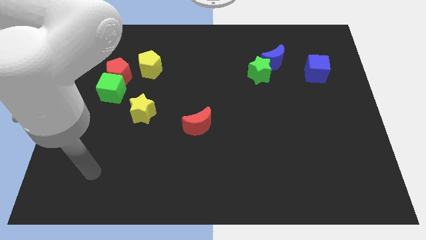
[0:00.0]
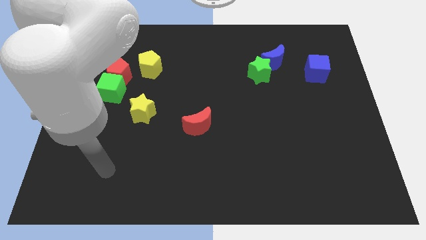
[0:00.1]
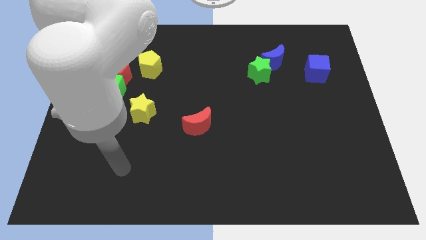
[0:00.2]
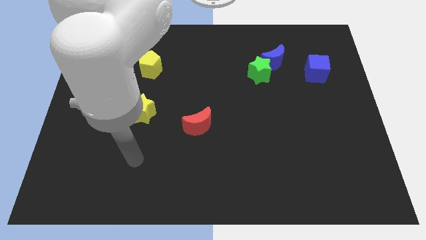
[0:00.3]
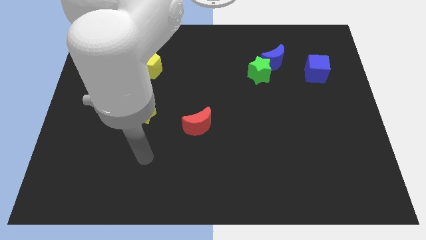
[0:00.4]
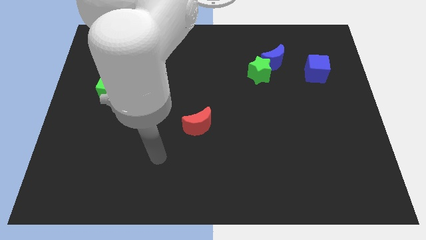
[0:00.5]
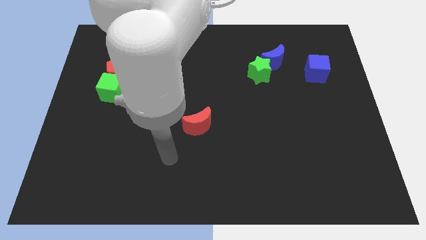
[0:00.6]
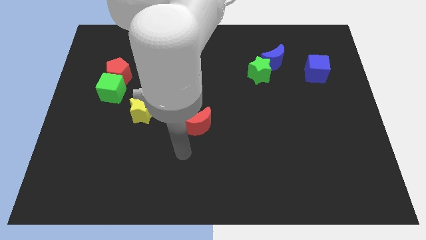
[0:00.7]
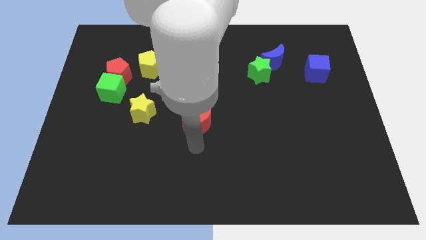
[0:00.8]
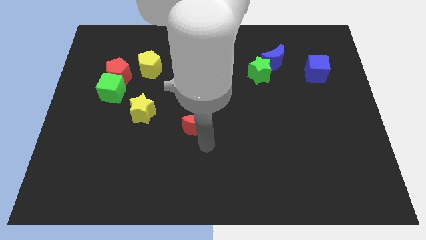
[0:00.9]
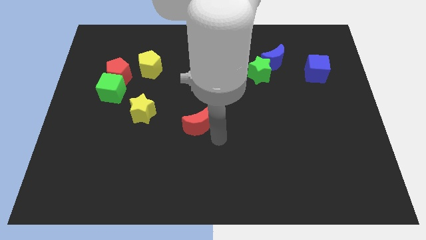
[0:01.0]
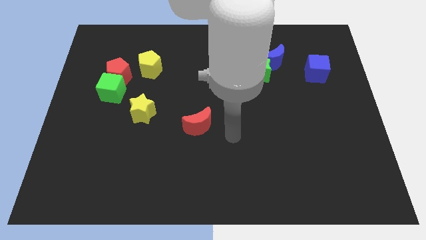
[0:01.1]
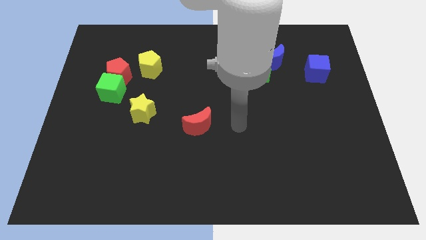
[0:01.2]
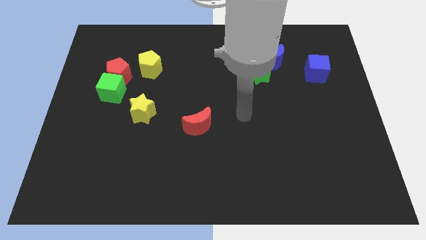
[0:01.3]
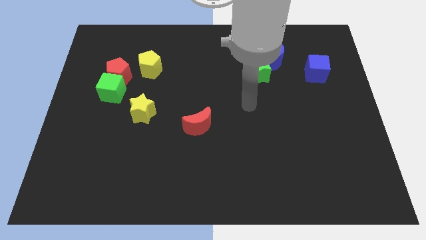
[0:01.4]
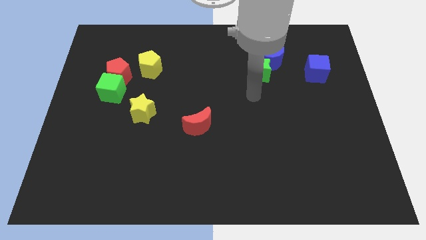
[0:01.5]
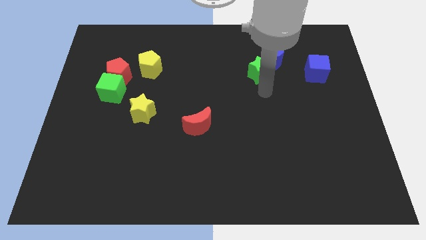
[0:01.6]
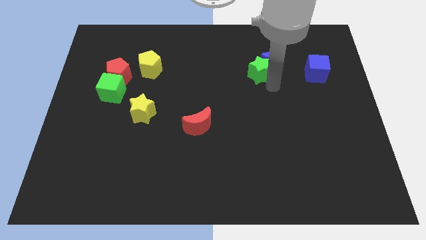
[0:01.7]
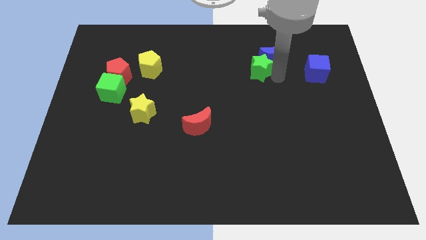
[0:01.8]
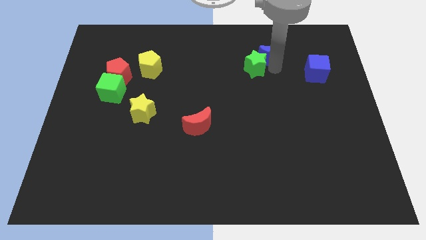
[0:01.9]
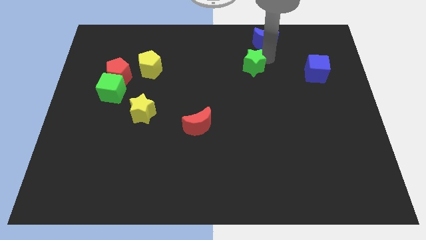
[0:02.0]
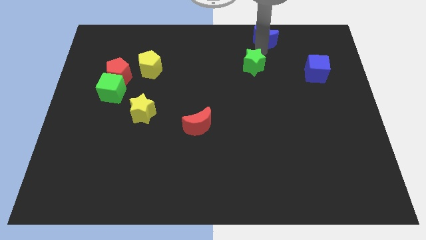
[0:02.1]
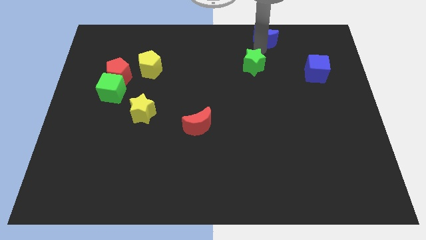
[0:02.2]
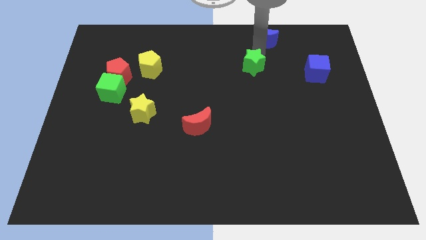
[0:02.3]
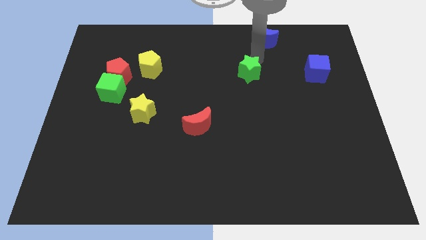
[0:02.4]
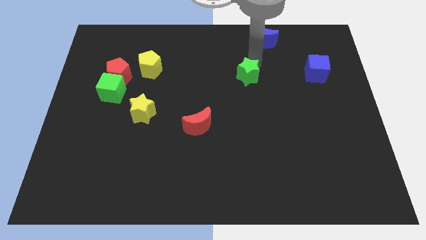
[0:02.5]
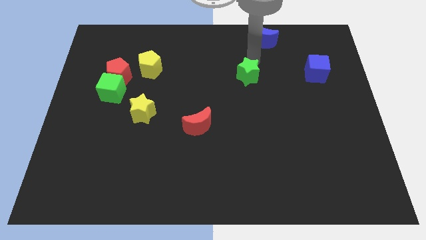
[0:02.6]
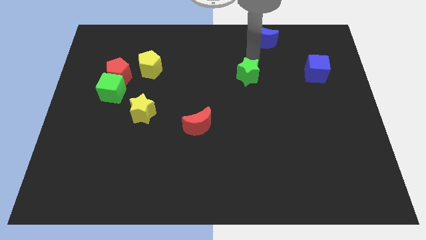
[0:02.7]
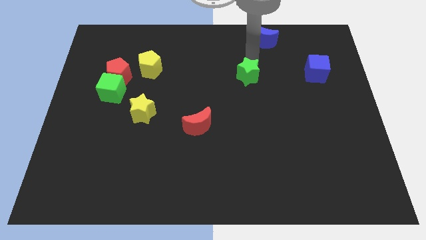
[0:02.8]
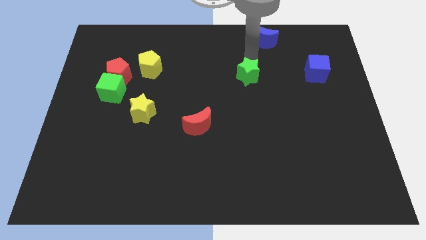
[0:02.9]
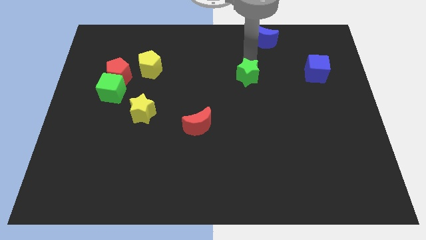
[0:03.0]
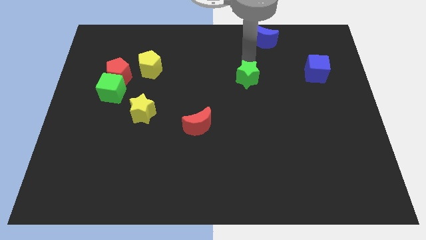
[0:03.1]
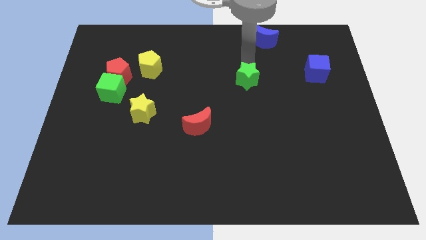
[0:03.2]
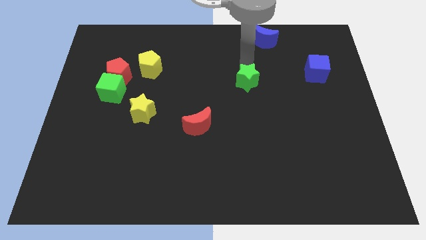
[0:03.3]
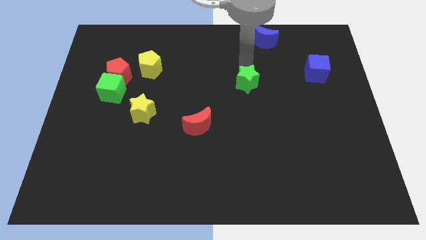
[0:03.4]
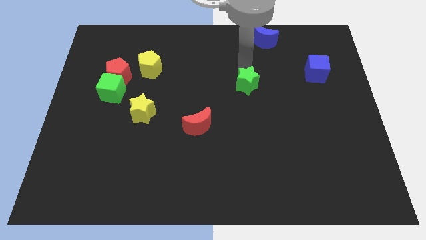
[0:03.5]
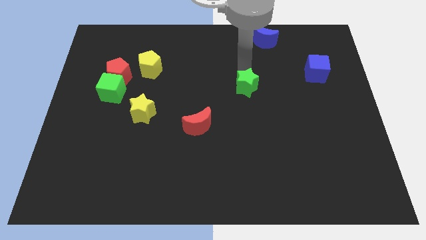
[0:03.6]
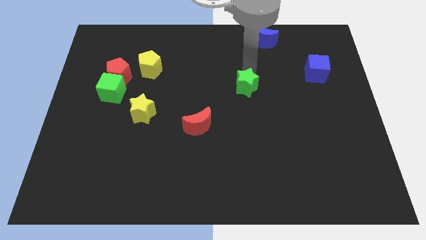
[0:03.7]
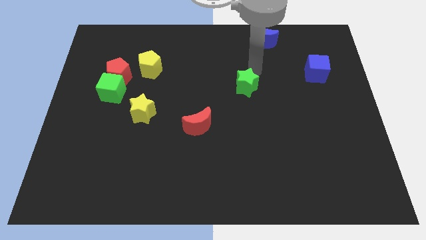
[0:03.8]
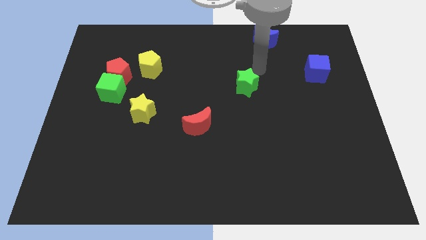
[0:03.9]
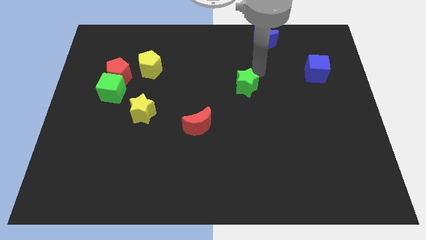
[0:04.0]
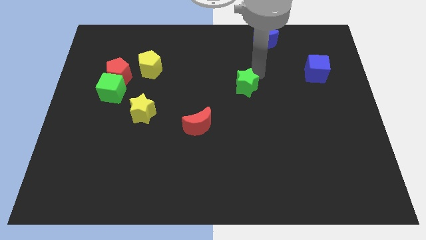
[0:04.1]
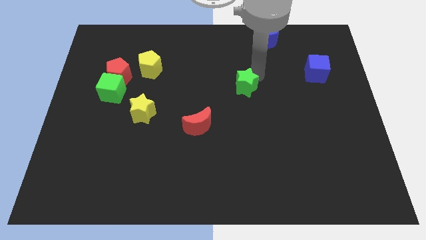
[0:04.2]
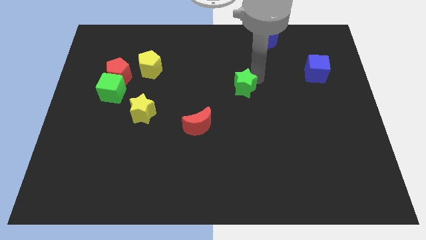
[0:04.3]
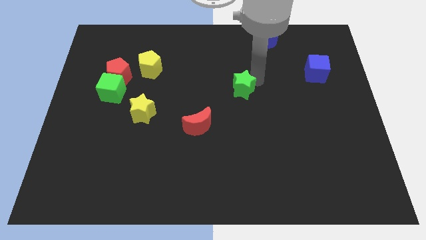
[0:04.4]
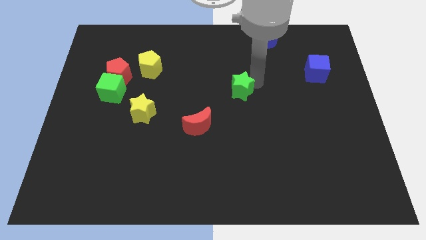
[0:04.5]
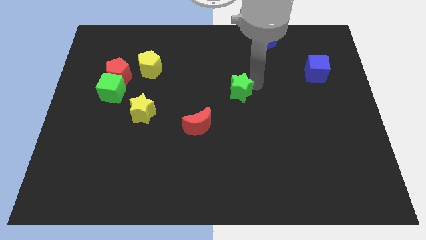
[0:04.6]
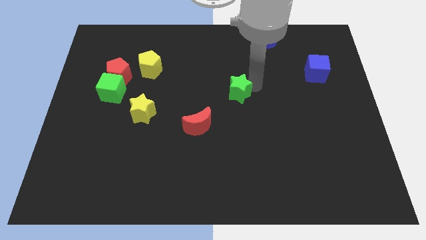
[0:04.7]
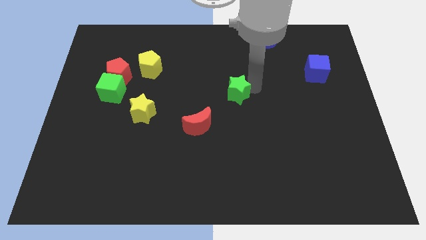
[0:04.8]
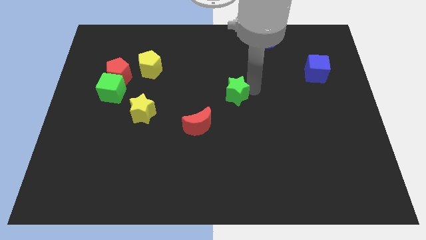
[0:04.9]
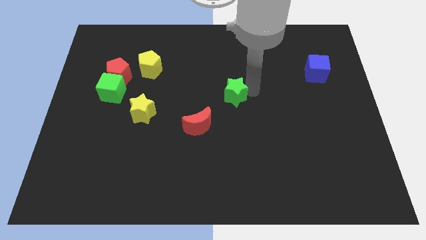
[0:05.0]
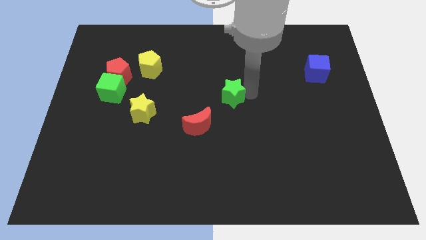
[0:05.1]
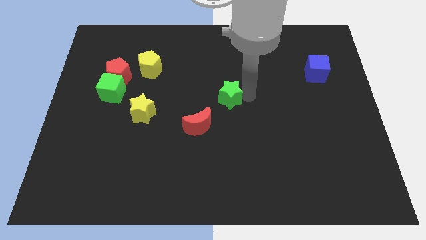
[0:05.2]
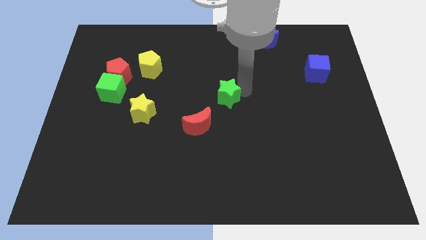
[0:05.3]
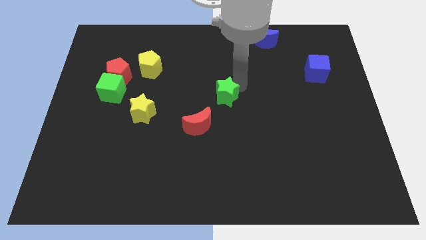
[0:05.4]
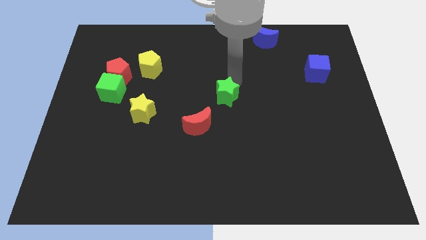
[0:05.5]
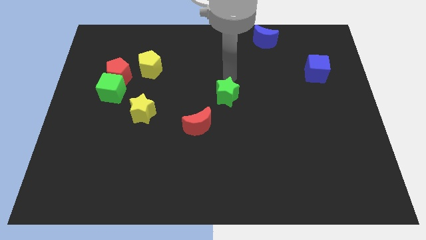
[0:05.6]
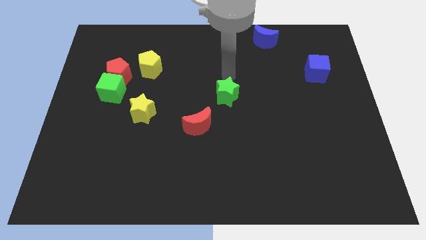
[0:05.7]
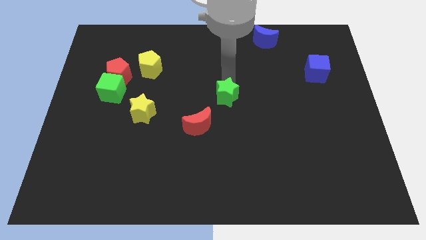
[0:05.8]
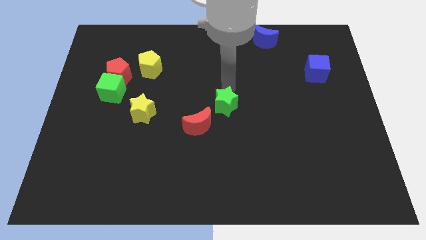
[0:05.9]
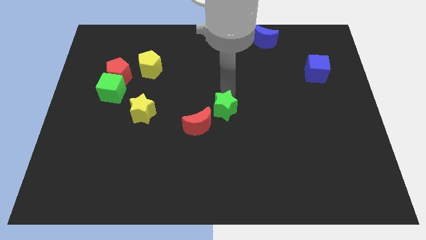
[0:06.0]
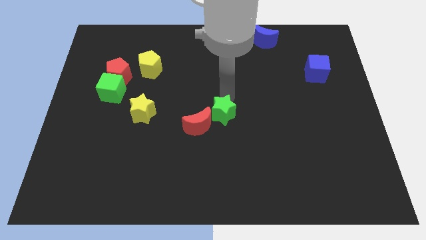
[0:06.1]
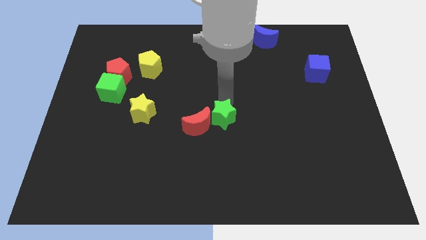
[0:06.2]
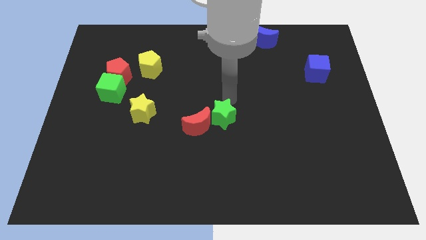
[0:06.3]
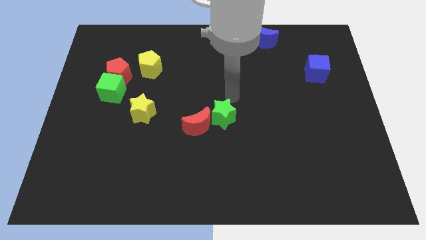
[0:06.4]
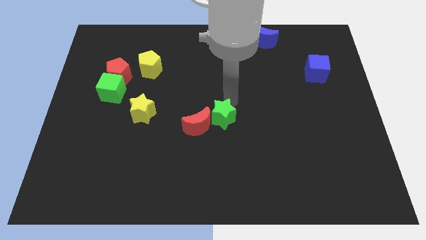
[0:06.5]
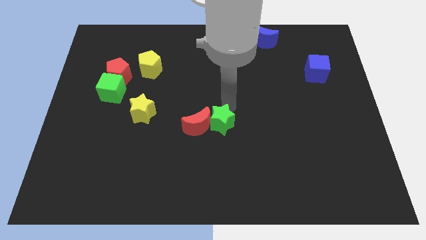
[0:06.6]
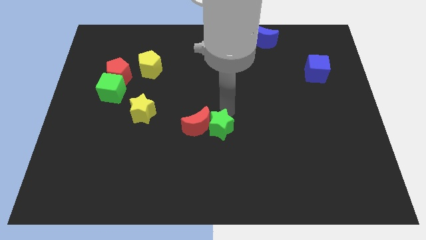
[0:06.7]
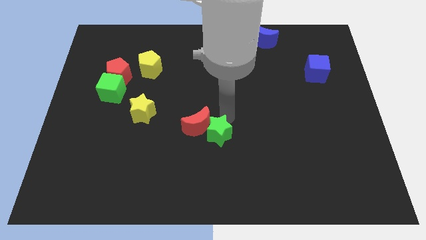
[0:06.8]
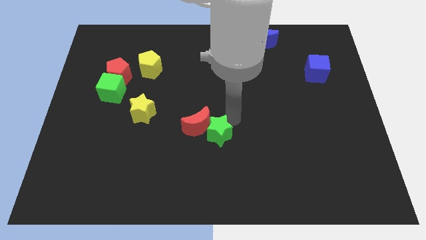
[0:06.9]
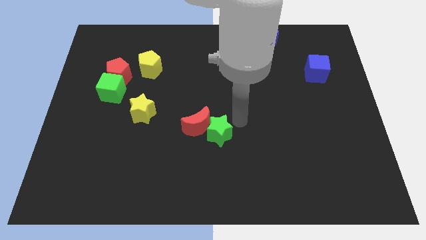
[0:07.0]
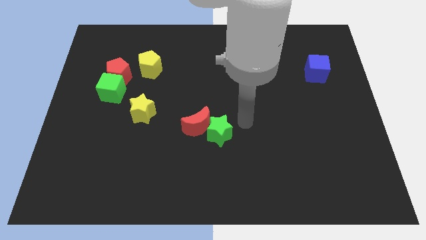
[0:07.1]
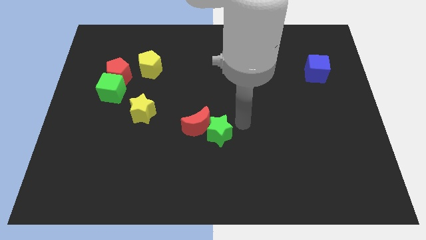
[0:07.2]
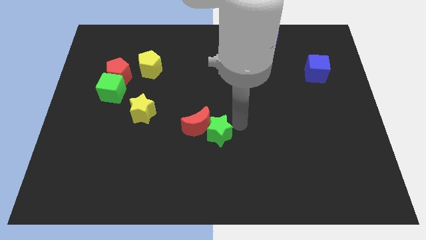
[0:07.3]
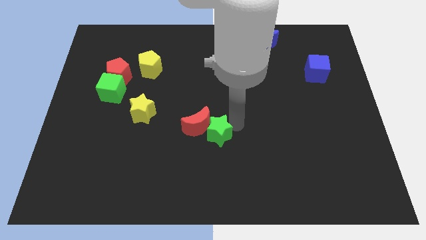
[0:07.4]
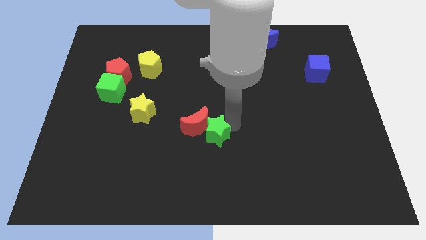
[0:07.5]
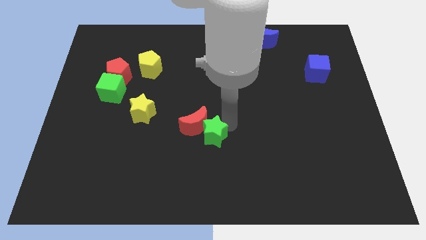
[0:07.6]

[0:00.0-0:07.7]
push the green star down and then to the left

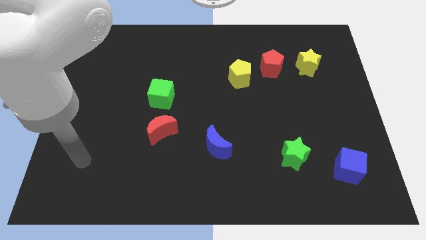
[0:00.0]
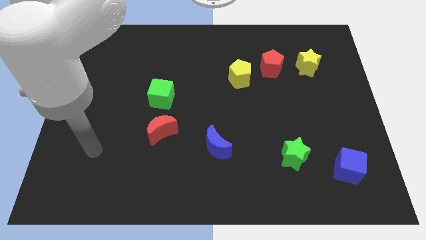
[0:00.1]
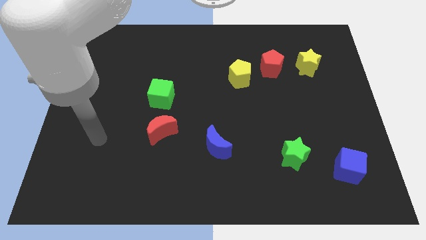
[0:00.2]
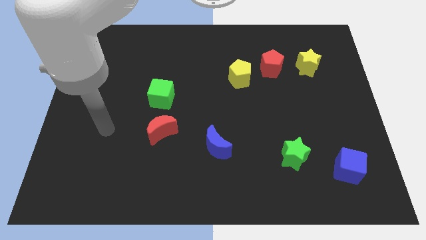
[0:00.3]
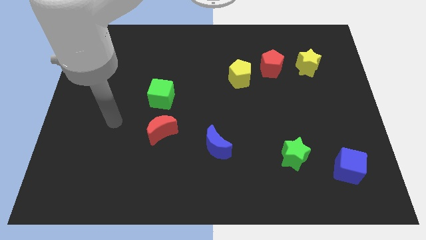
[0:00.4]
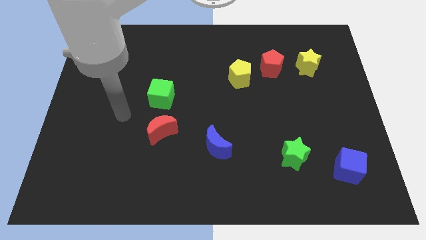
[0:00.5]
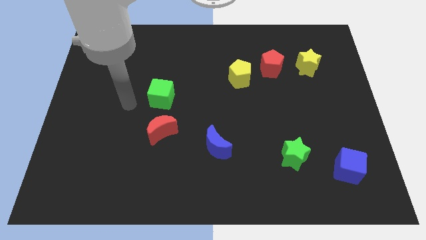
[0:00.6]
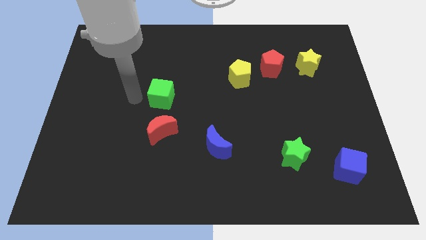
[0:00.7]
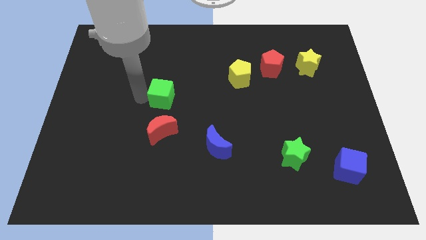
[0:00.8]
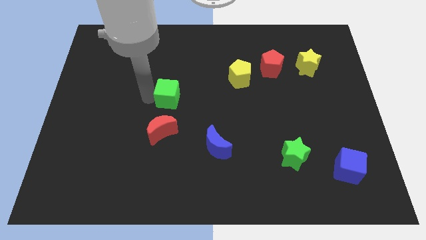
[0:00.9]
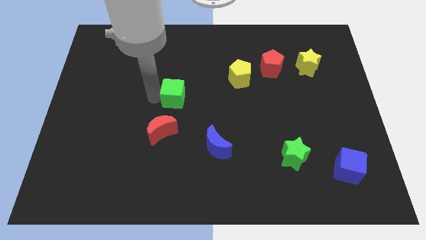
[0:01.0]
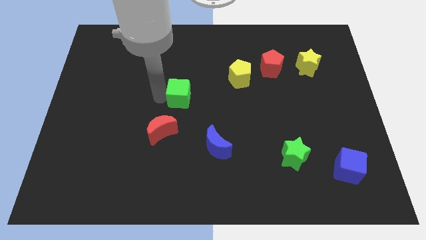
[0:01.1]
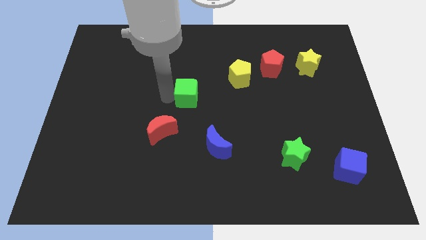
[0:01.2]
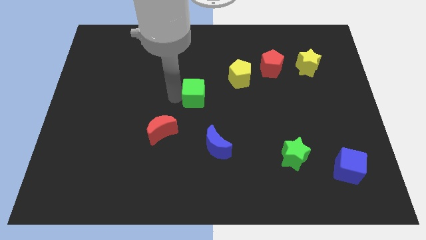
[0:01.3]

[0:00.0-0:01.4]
push the green cube right a bit
